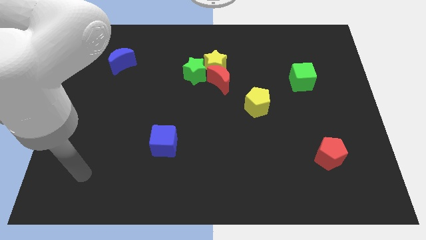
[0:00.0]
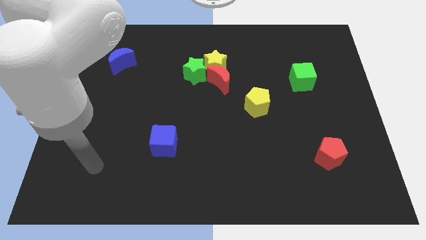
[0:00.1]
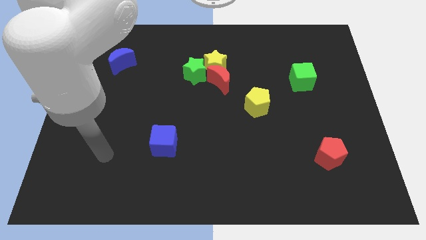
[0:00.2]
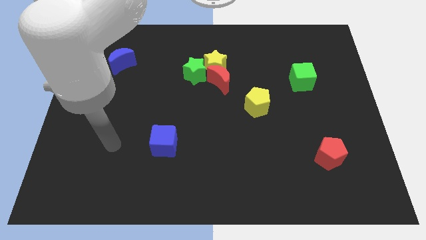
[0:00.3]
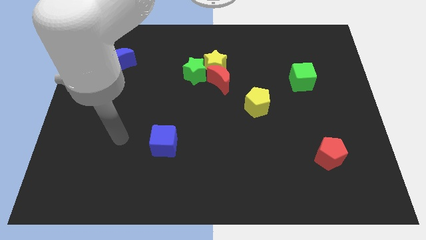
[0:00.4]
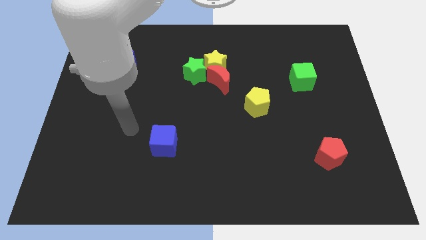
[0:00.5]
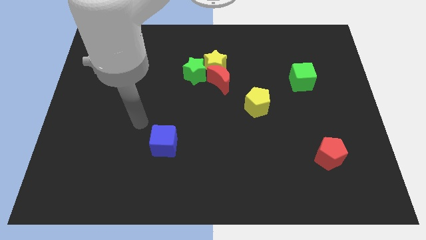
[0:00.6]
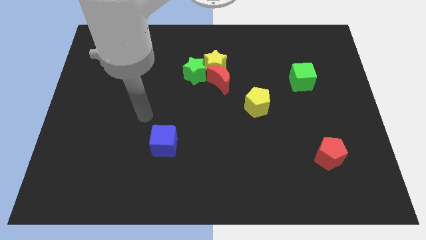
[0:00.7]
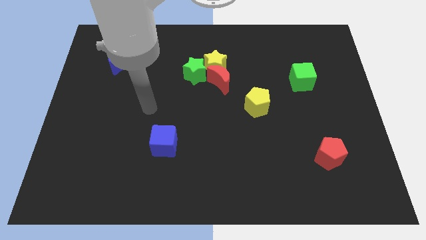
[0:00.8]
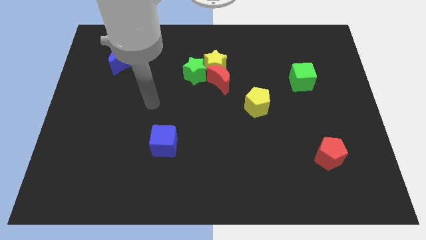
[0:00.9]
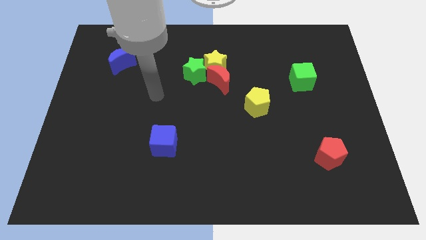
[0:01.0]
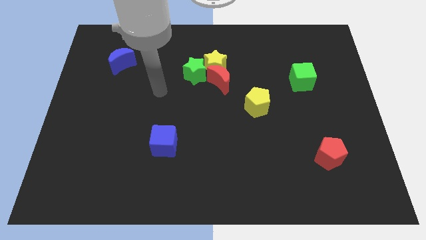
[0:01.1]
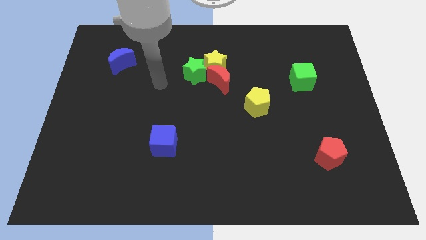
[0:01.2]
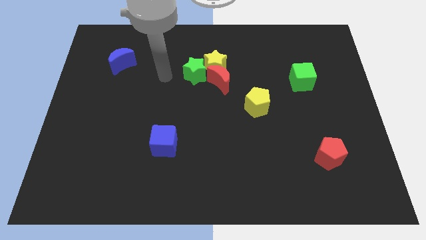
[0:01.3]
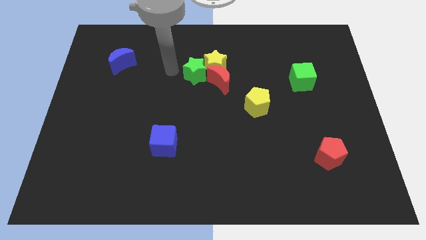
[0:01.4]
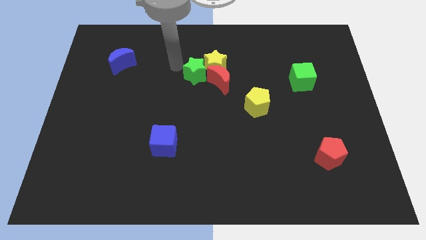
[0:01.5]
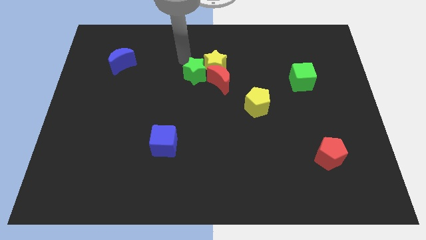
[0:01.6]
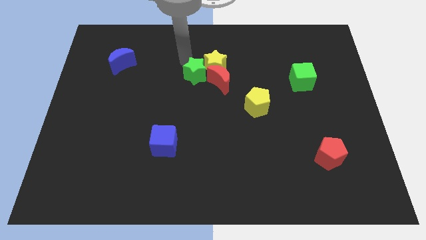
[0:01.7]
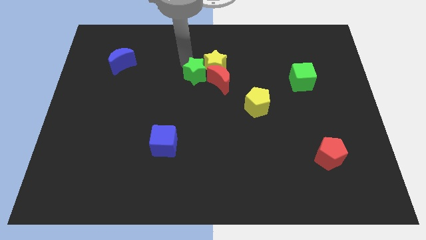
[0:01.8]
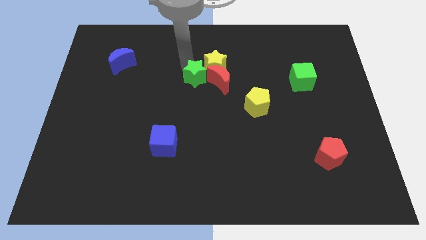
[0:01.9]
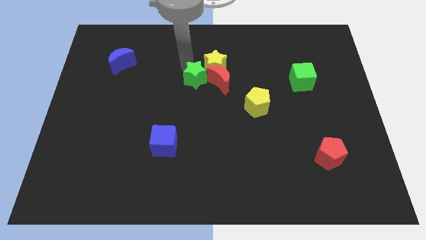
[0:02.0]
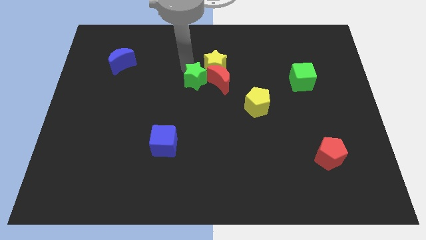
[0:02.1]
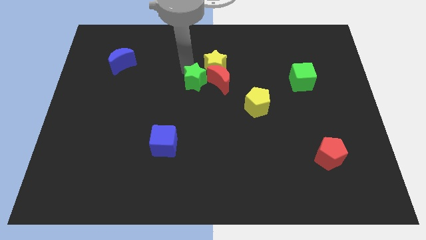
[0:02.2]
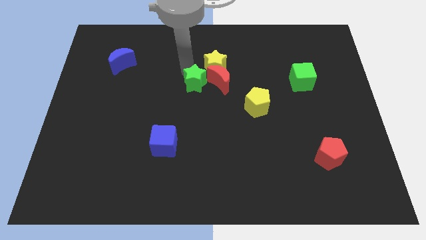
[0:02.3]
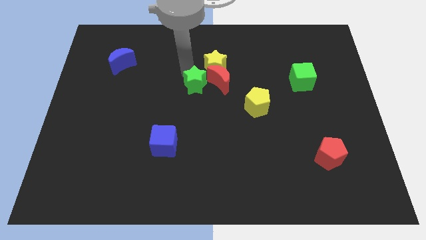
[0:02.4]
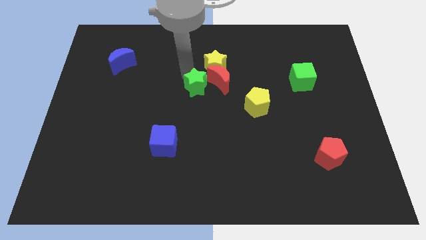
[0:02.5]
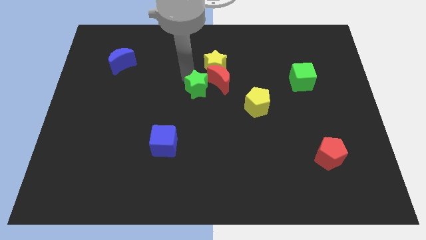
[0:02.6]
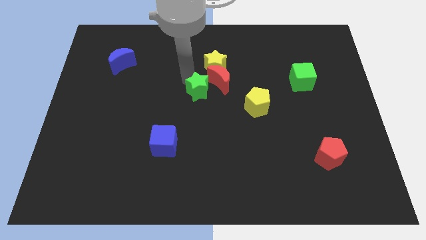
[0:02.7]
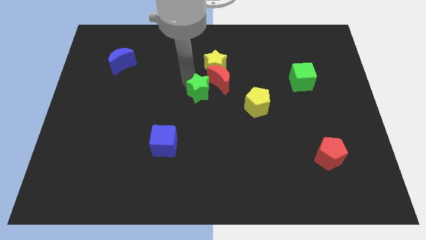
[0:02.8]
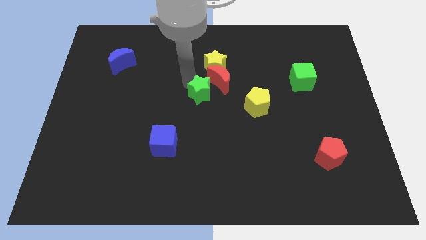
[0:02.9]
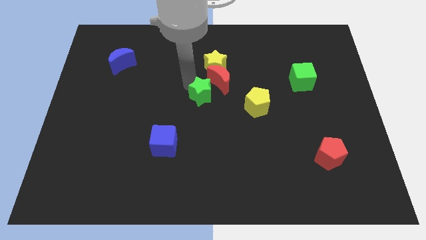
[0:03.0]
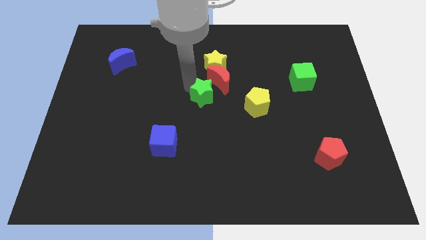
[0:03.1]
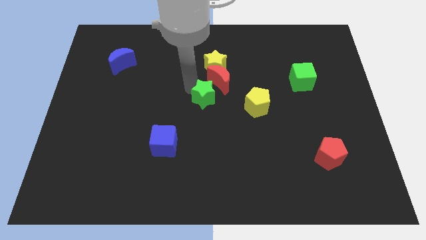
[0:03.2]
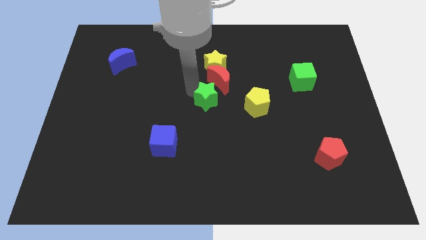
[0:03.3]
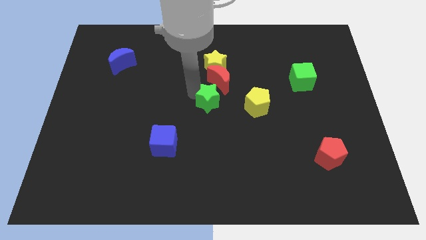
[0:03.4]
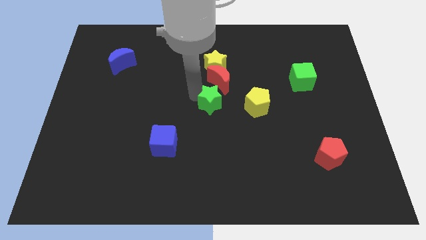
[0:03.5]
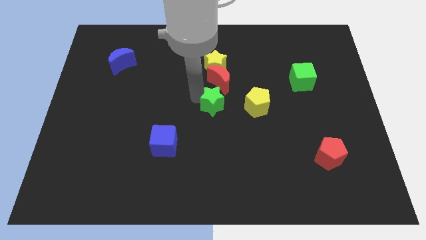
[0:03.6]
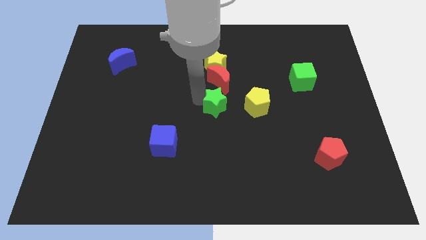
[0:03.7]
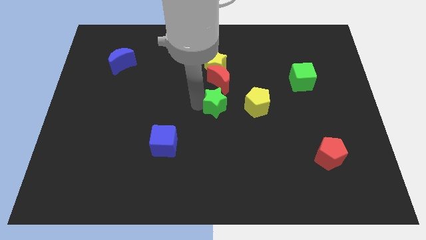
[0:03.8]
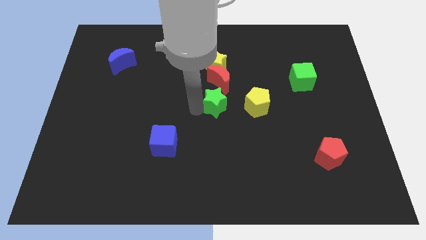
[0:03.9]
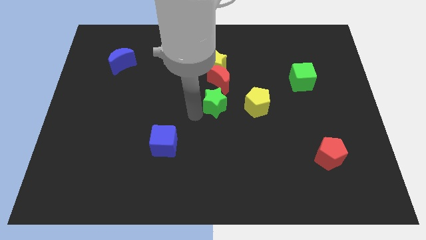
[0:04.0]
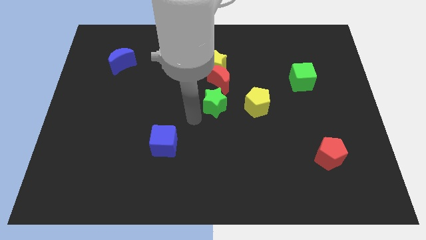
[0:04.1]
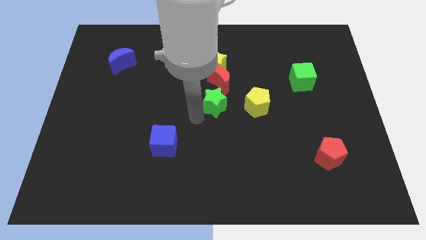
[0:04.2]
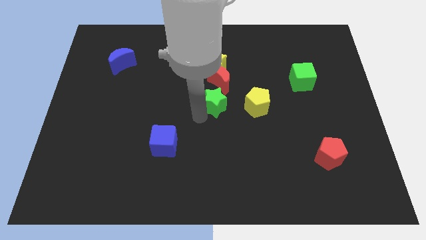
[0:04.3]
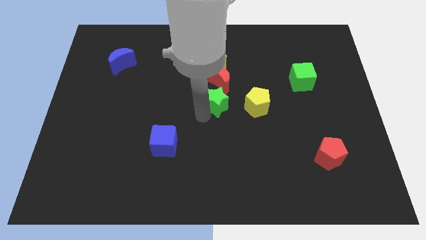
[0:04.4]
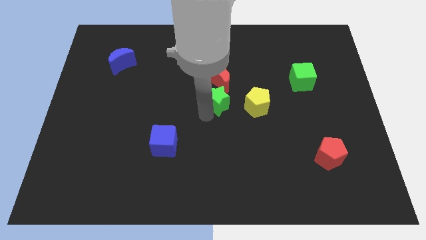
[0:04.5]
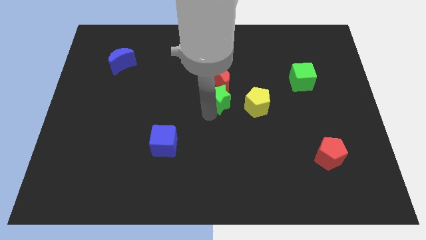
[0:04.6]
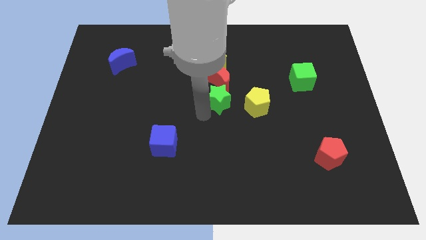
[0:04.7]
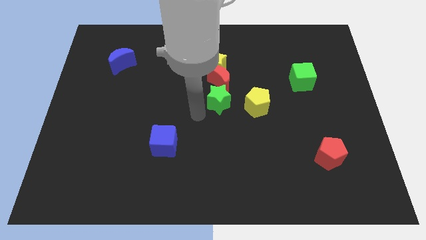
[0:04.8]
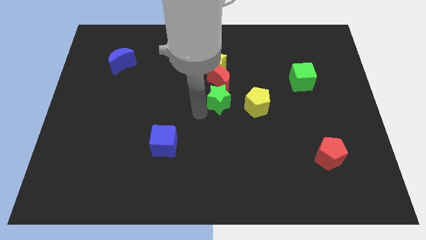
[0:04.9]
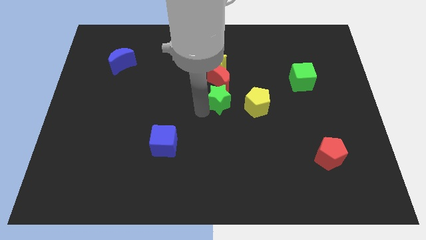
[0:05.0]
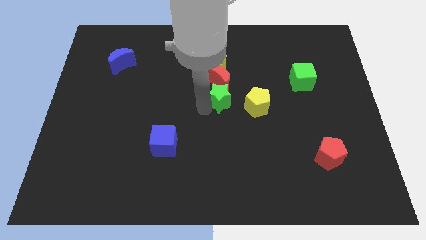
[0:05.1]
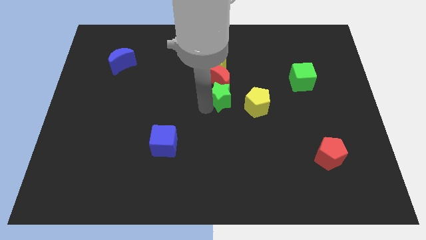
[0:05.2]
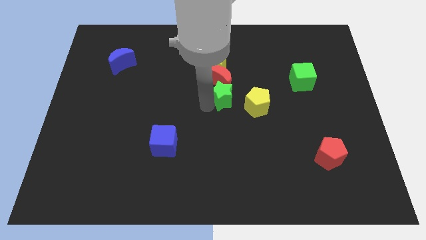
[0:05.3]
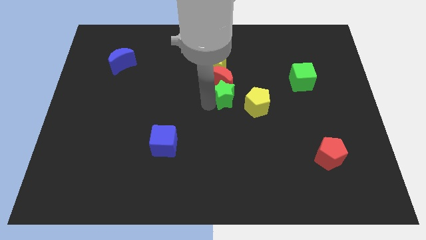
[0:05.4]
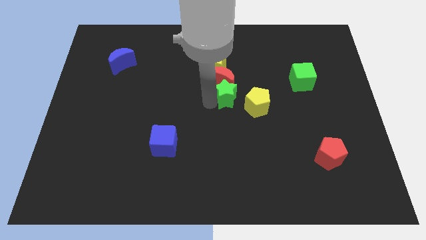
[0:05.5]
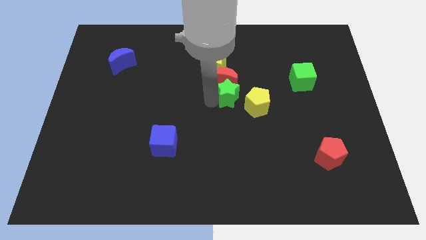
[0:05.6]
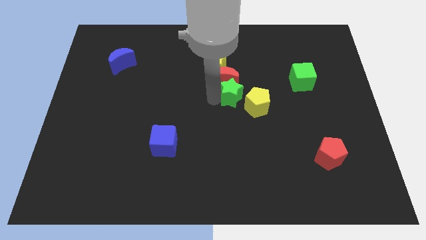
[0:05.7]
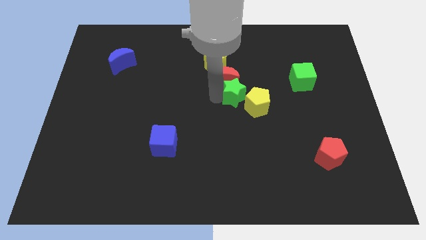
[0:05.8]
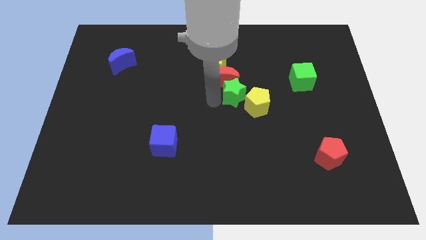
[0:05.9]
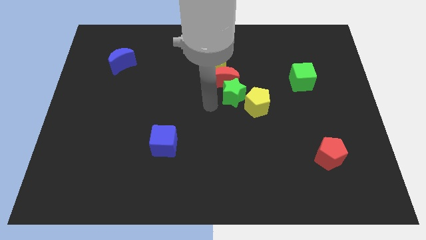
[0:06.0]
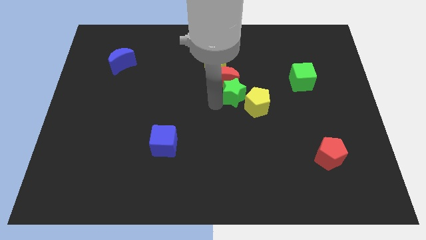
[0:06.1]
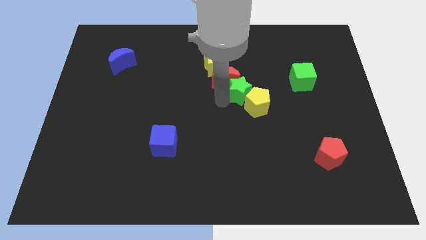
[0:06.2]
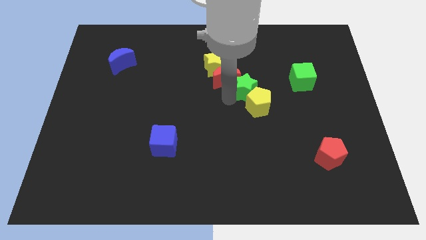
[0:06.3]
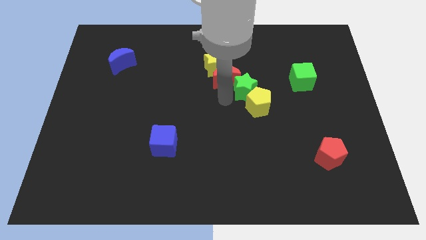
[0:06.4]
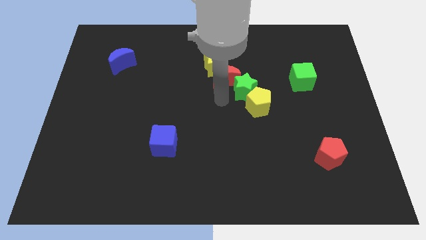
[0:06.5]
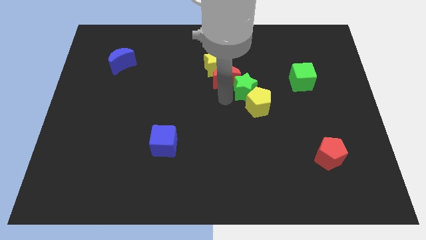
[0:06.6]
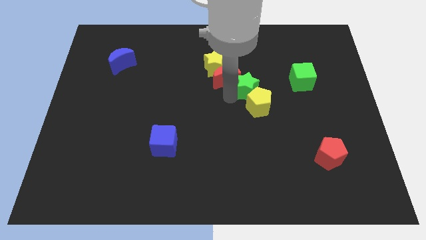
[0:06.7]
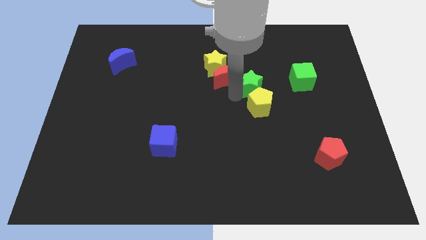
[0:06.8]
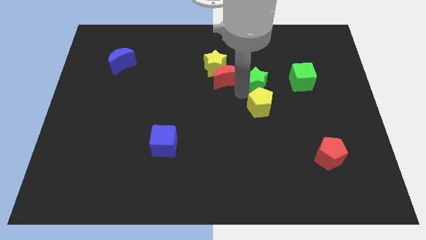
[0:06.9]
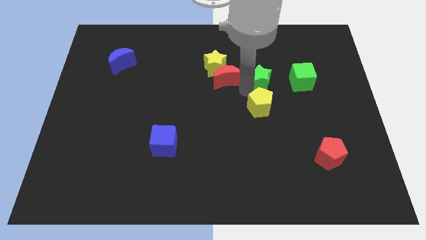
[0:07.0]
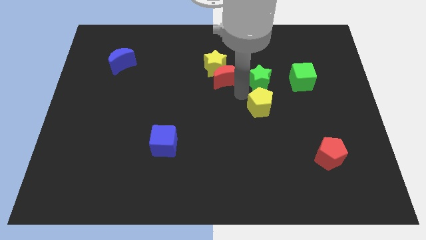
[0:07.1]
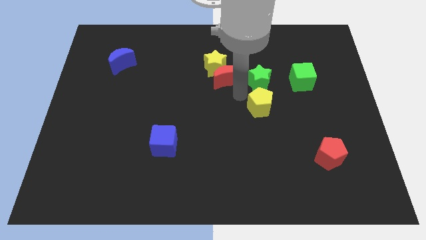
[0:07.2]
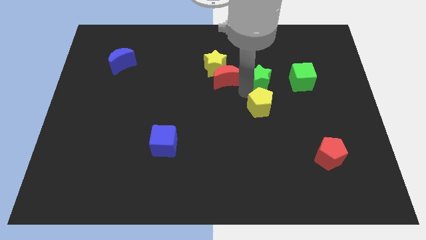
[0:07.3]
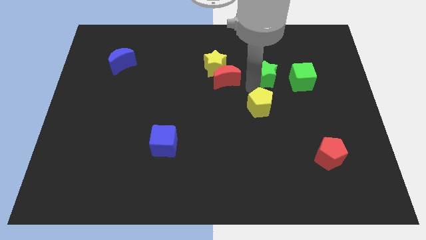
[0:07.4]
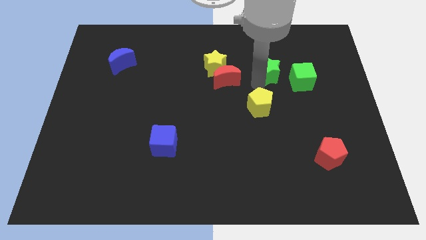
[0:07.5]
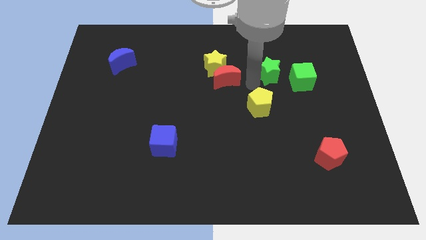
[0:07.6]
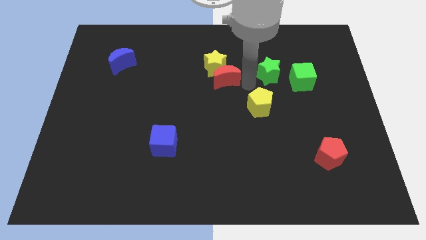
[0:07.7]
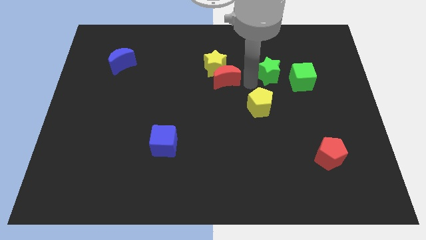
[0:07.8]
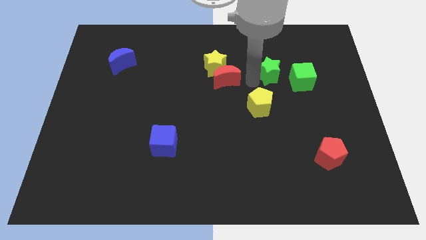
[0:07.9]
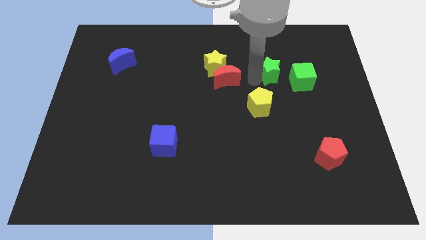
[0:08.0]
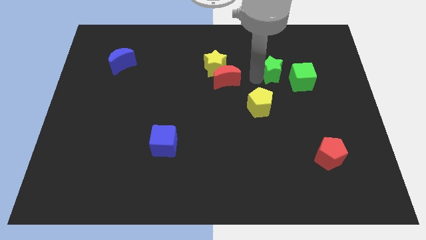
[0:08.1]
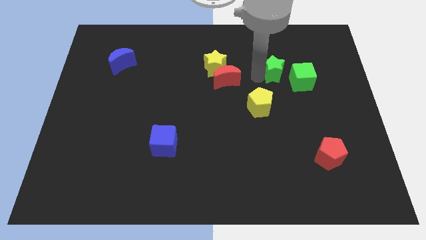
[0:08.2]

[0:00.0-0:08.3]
move the green star to the right

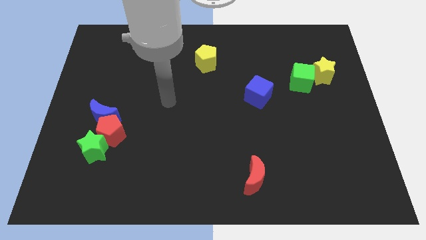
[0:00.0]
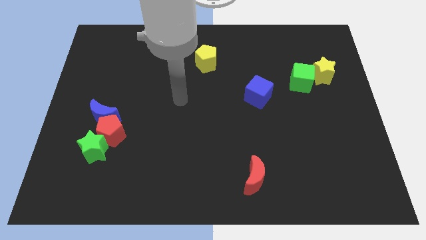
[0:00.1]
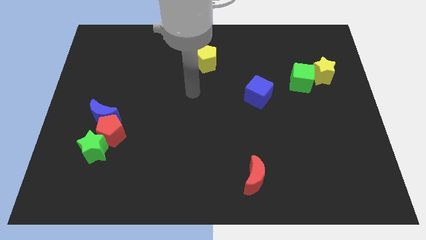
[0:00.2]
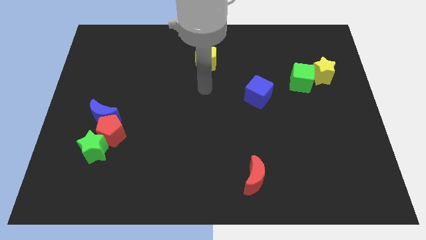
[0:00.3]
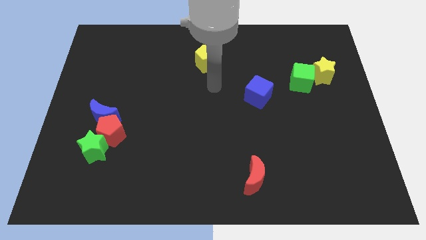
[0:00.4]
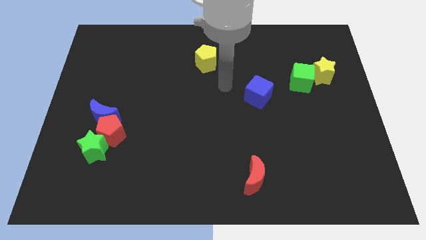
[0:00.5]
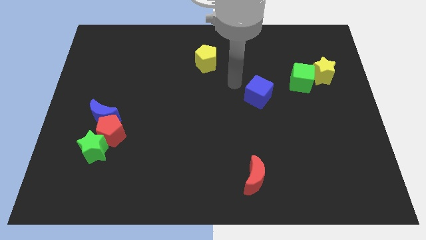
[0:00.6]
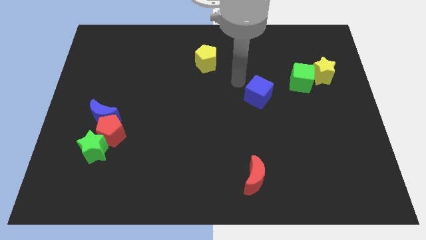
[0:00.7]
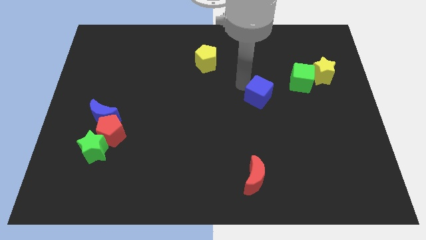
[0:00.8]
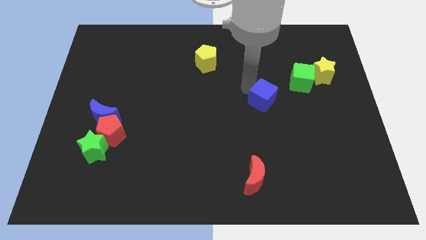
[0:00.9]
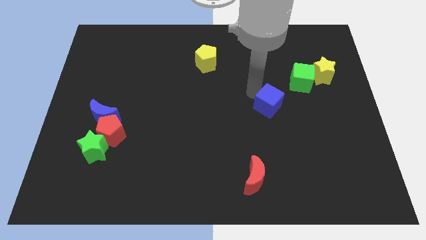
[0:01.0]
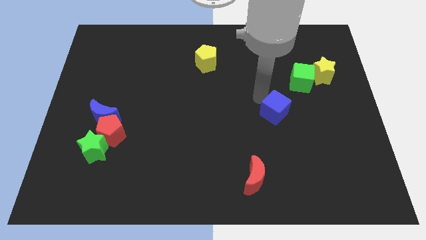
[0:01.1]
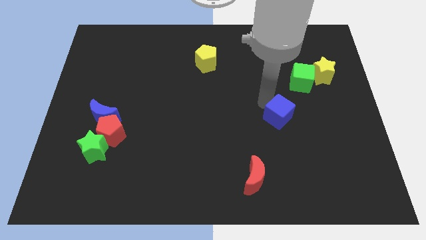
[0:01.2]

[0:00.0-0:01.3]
push the blue cube down and then to the right a bit
